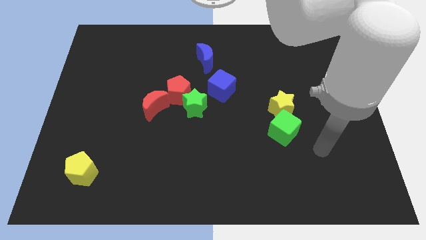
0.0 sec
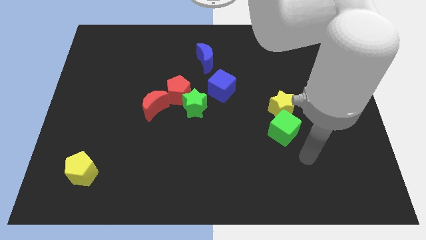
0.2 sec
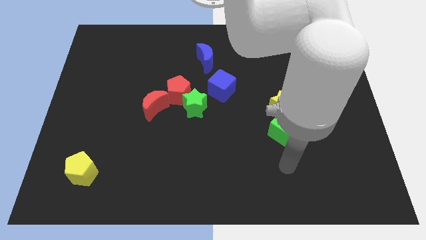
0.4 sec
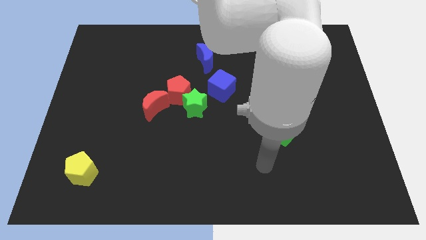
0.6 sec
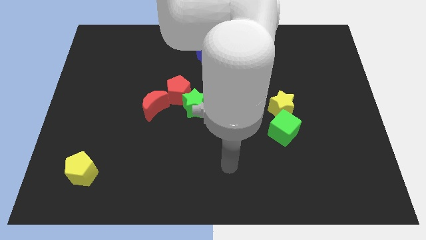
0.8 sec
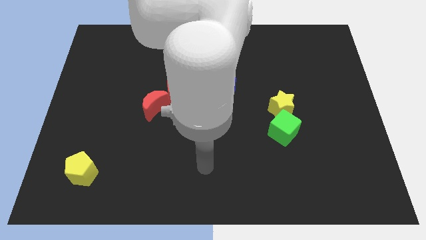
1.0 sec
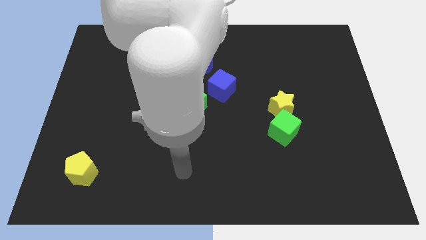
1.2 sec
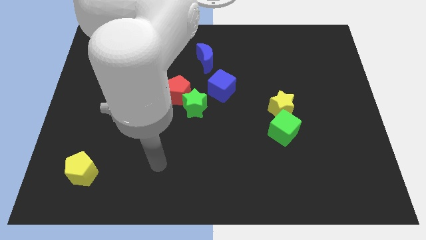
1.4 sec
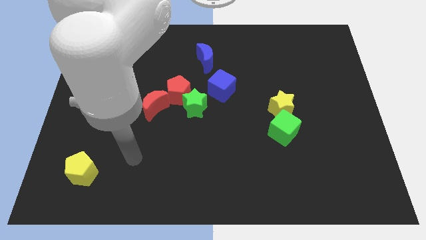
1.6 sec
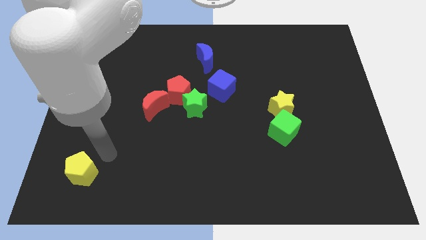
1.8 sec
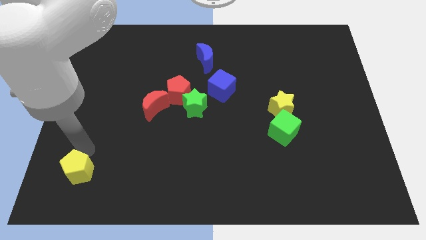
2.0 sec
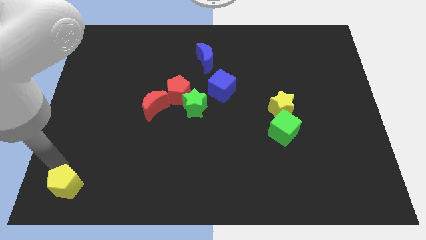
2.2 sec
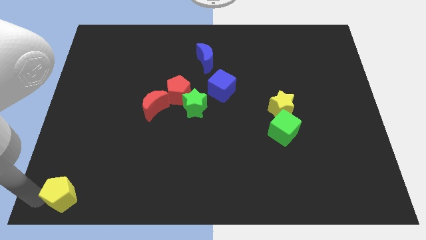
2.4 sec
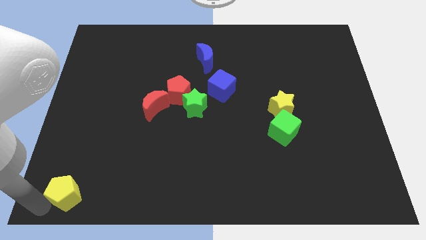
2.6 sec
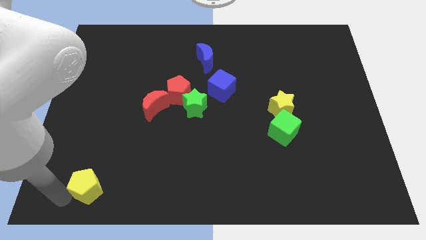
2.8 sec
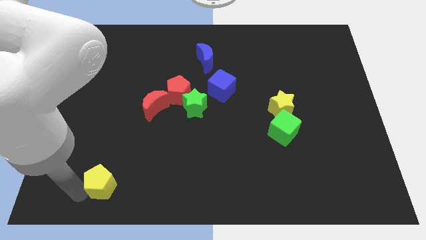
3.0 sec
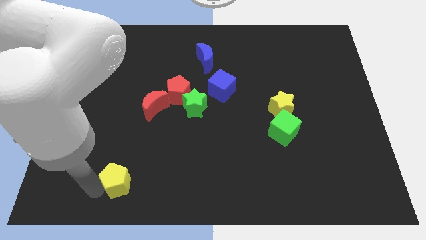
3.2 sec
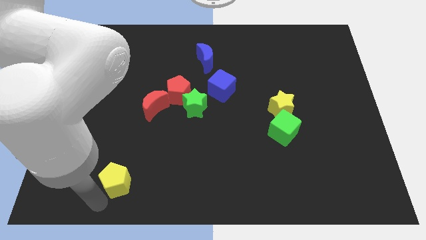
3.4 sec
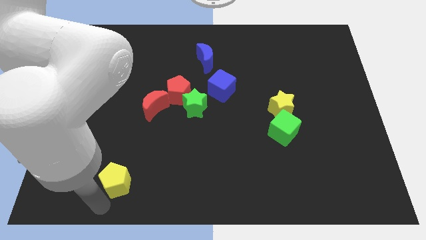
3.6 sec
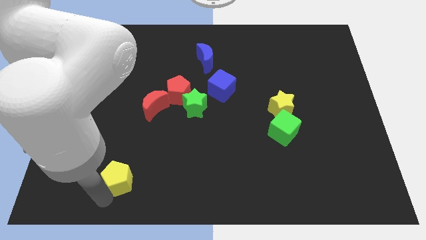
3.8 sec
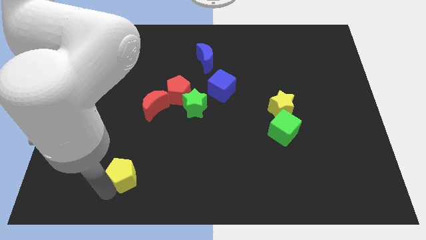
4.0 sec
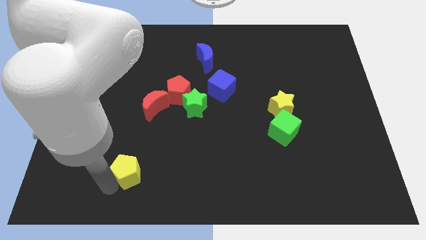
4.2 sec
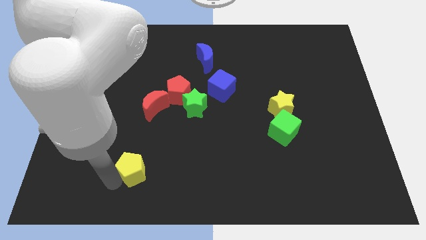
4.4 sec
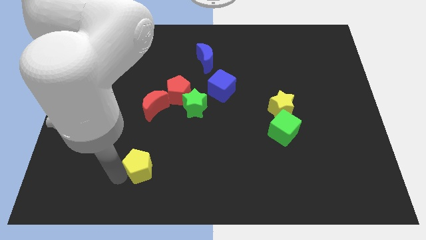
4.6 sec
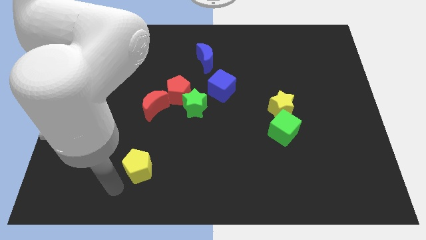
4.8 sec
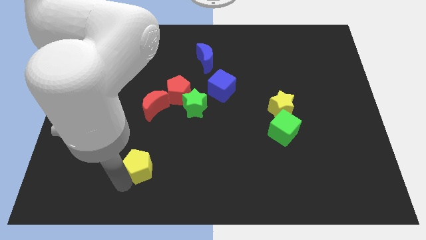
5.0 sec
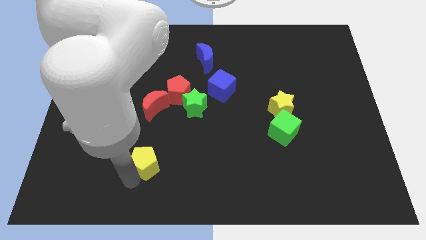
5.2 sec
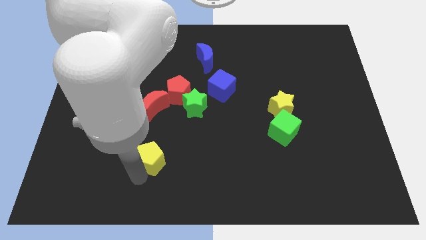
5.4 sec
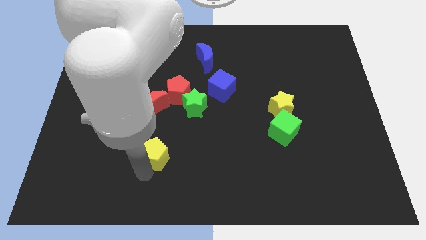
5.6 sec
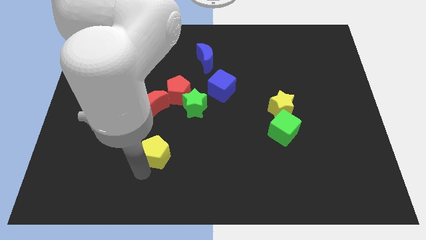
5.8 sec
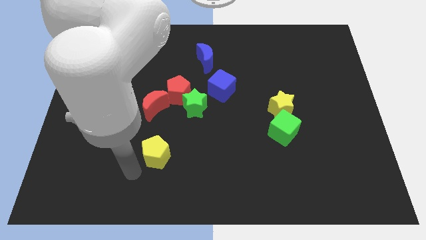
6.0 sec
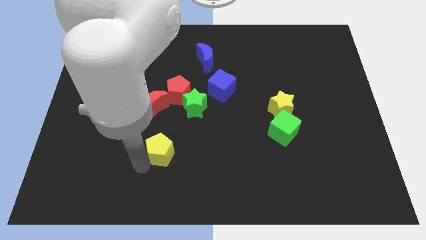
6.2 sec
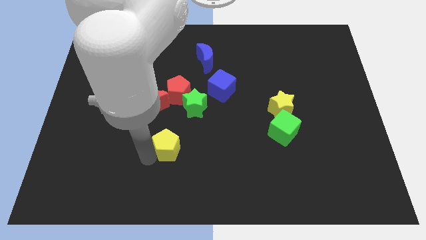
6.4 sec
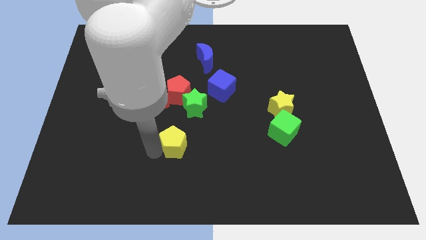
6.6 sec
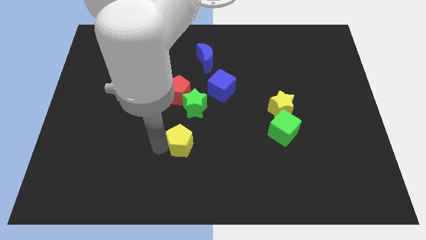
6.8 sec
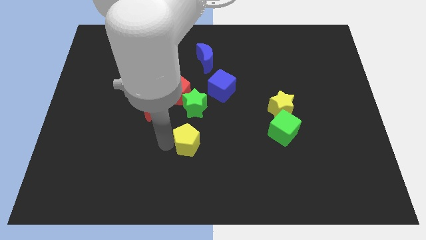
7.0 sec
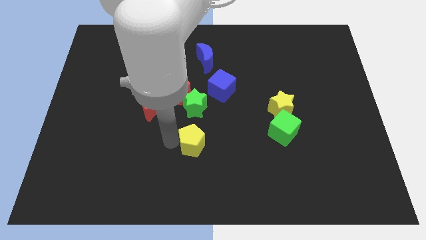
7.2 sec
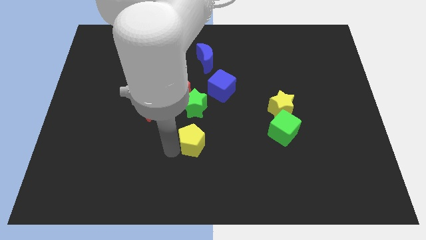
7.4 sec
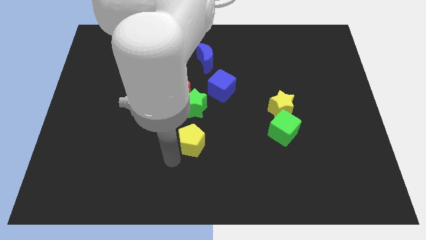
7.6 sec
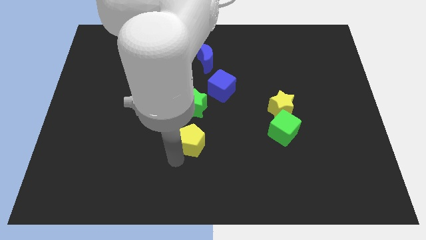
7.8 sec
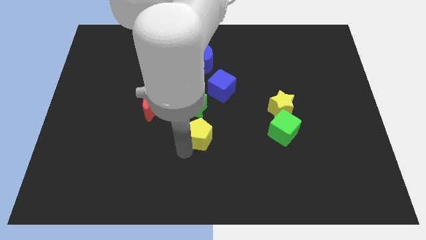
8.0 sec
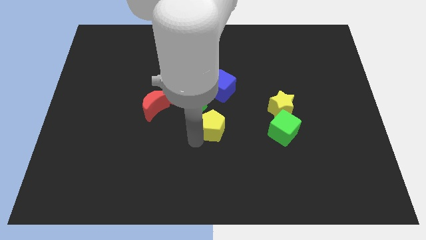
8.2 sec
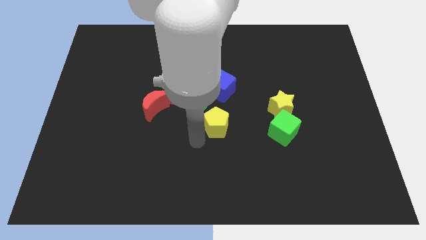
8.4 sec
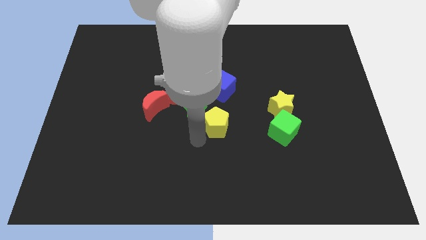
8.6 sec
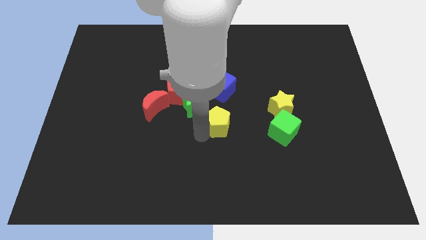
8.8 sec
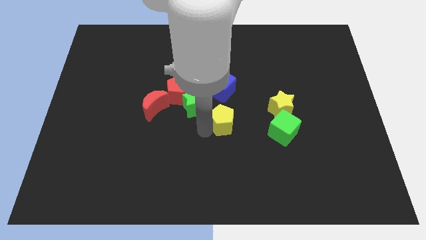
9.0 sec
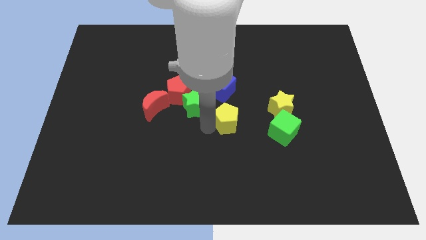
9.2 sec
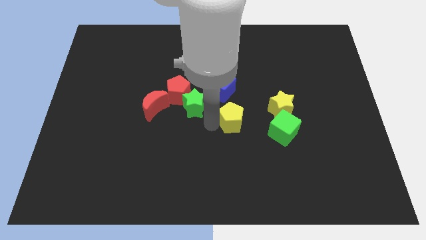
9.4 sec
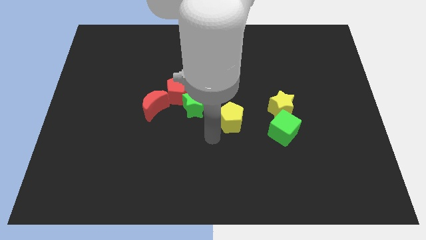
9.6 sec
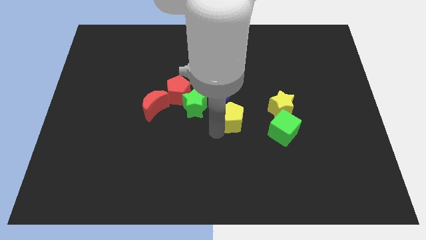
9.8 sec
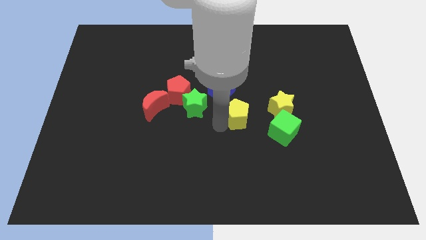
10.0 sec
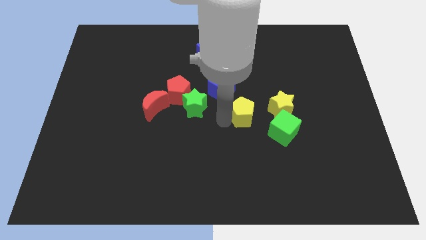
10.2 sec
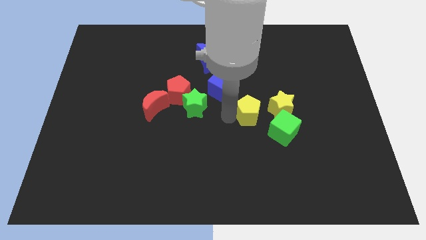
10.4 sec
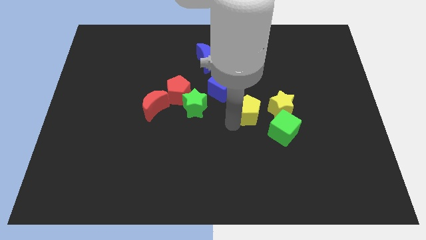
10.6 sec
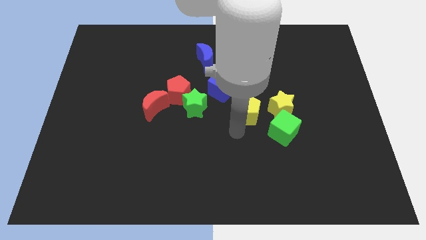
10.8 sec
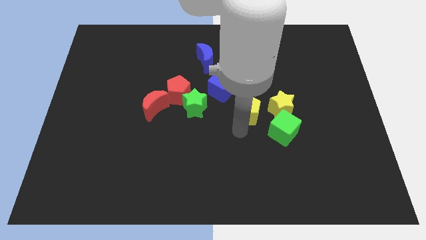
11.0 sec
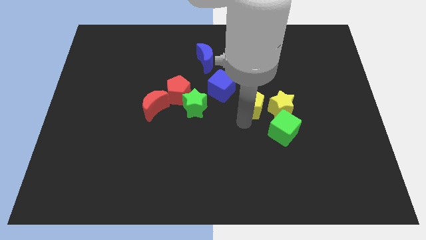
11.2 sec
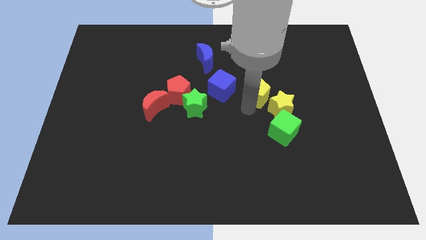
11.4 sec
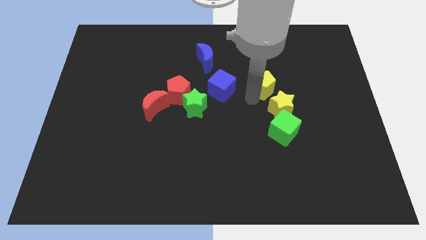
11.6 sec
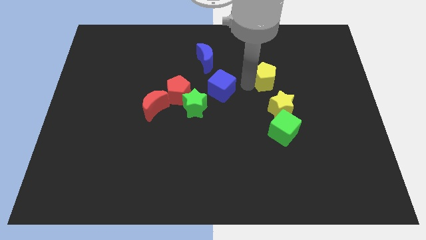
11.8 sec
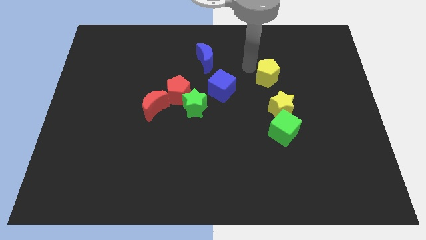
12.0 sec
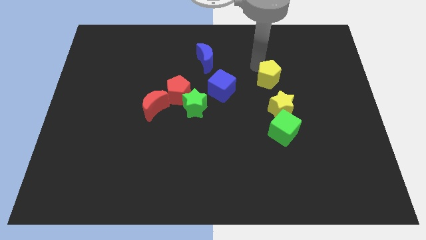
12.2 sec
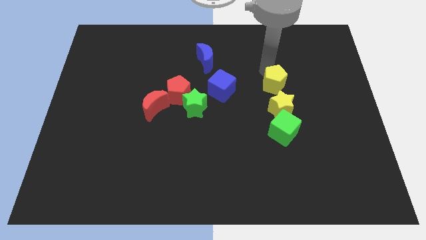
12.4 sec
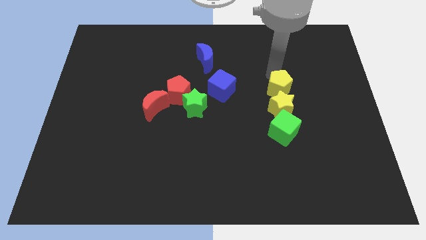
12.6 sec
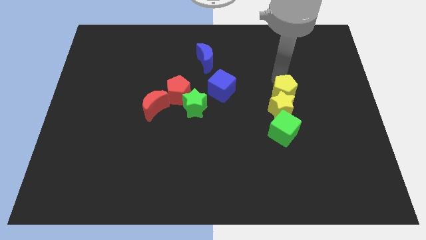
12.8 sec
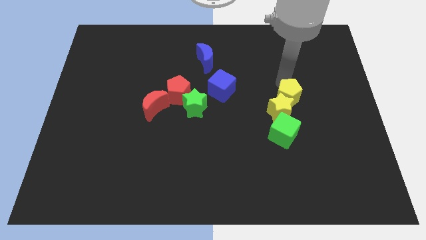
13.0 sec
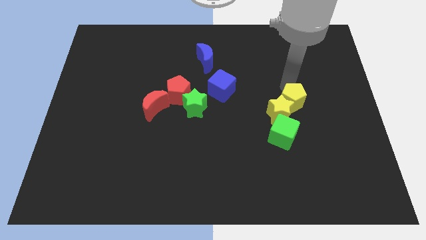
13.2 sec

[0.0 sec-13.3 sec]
push the yellow pentagon to the top right side of the green cube
